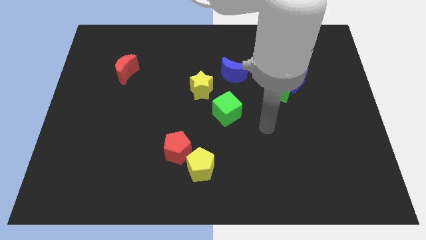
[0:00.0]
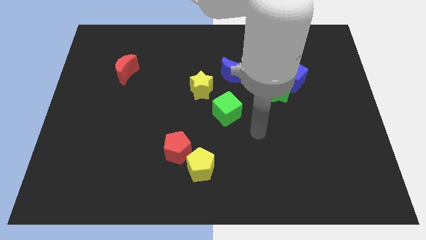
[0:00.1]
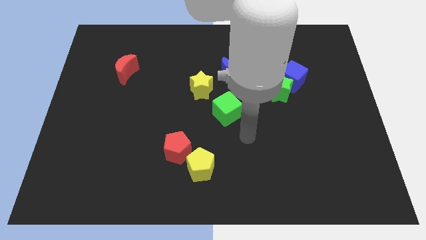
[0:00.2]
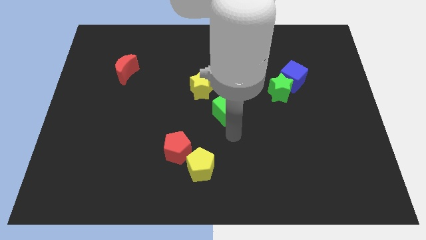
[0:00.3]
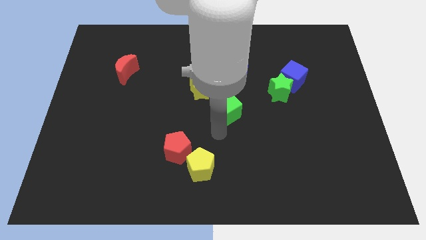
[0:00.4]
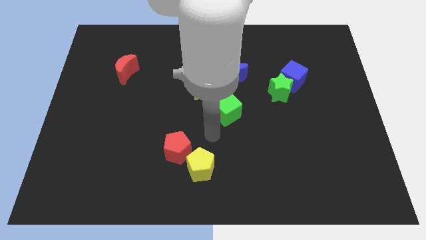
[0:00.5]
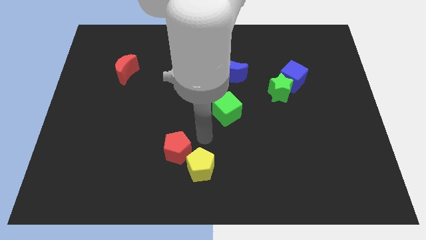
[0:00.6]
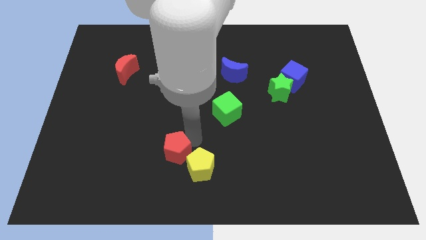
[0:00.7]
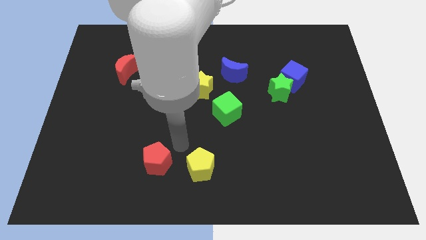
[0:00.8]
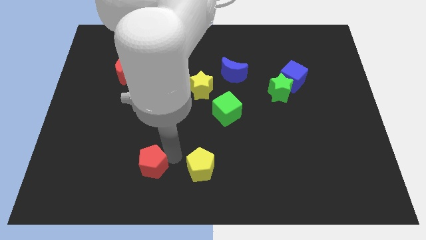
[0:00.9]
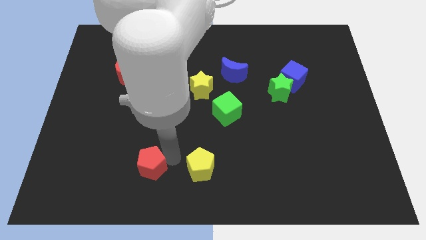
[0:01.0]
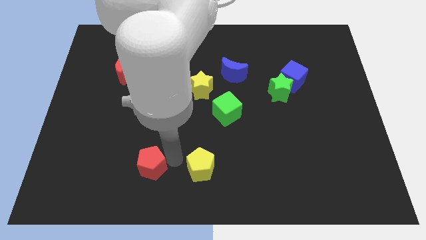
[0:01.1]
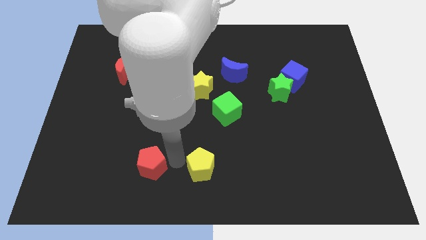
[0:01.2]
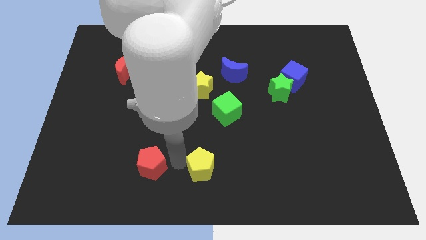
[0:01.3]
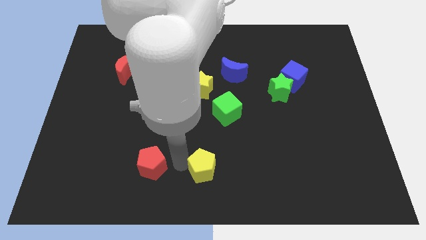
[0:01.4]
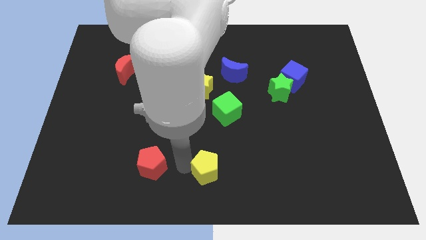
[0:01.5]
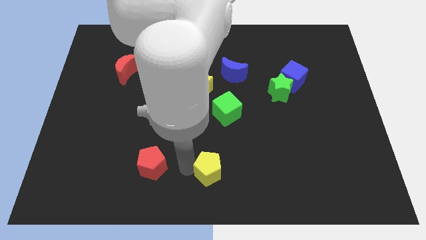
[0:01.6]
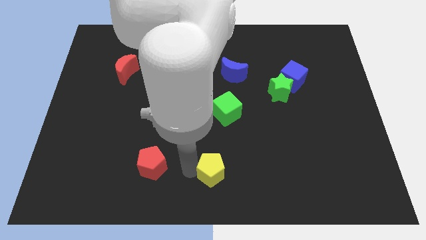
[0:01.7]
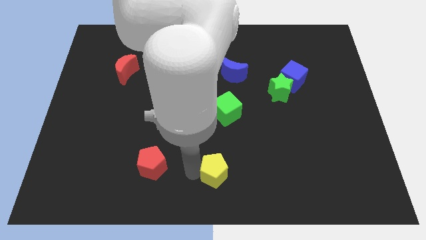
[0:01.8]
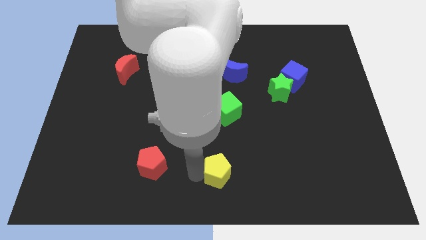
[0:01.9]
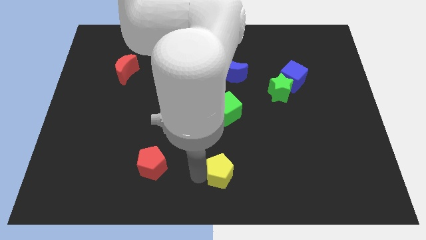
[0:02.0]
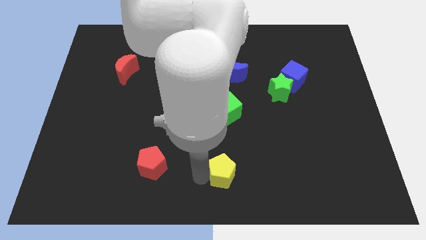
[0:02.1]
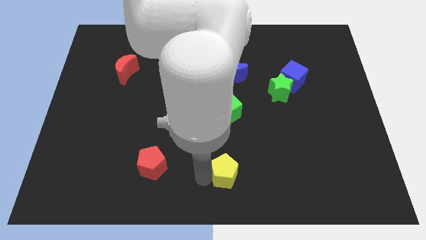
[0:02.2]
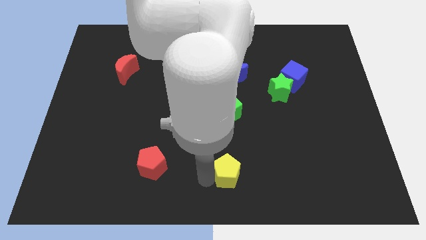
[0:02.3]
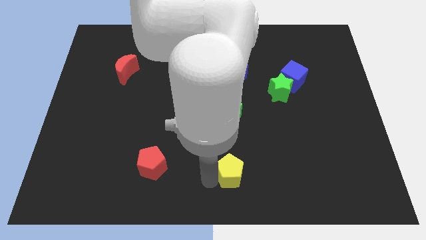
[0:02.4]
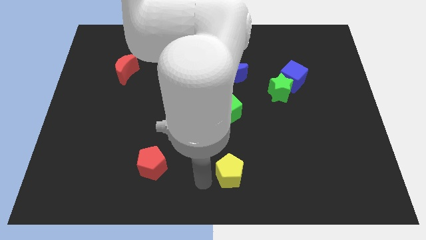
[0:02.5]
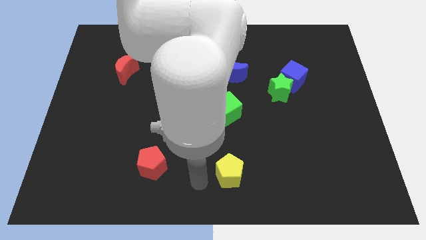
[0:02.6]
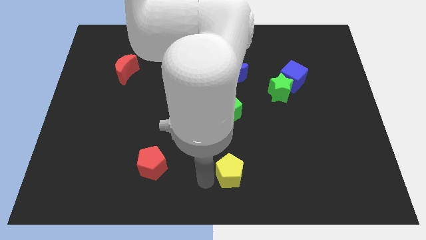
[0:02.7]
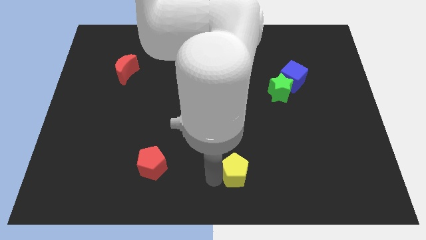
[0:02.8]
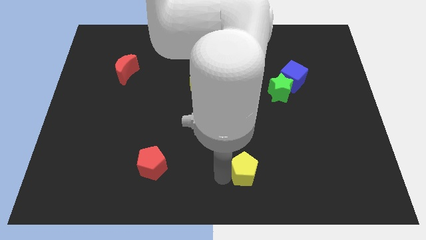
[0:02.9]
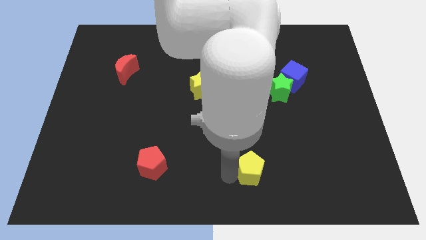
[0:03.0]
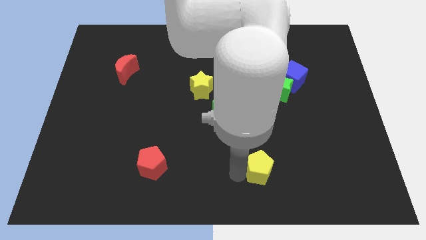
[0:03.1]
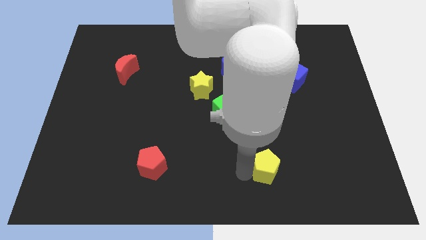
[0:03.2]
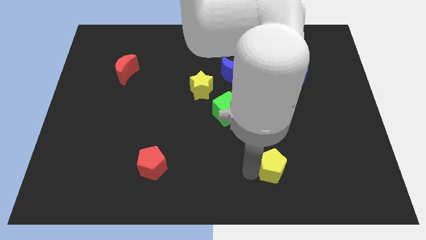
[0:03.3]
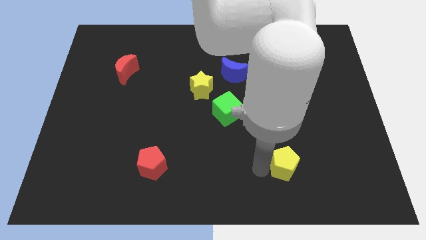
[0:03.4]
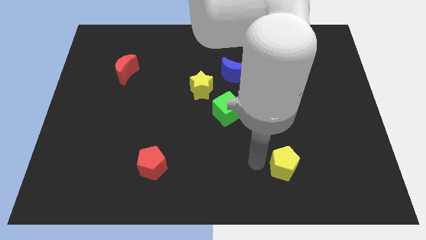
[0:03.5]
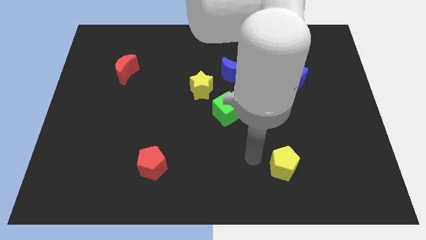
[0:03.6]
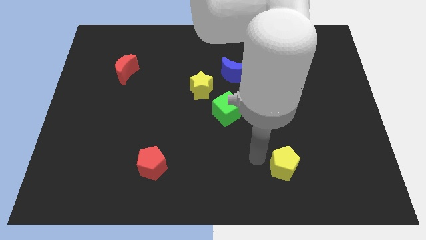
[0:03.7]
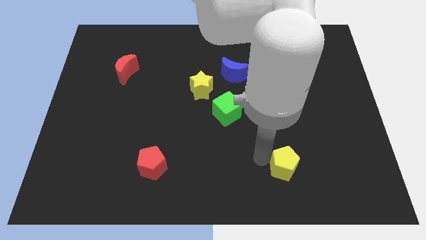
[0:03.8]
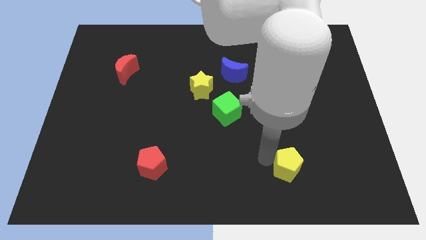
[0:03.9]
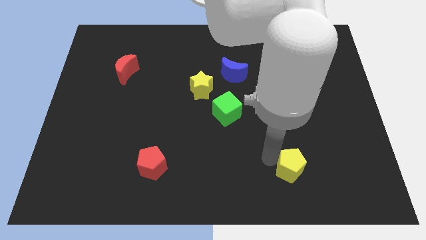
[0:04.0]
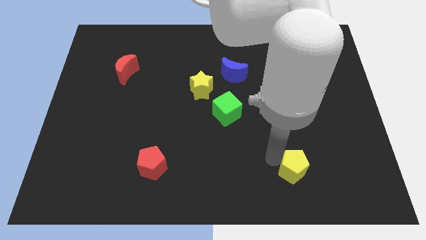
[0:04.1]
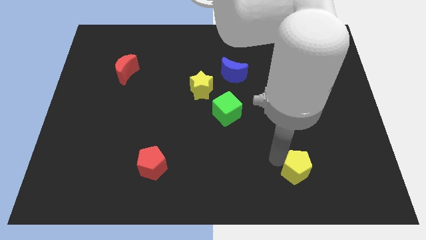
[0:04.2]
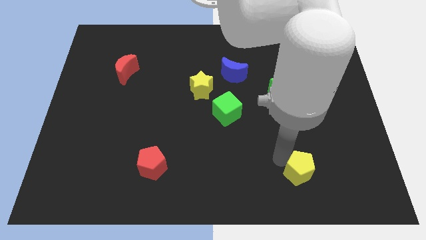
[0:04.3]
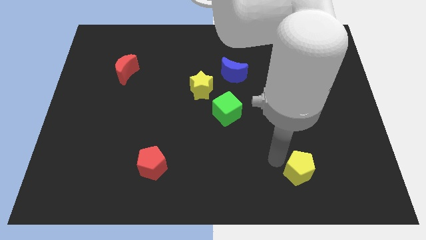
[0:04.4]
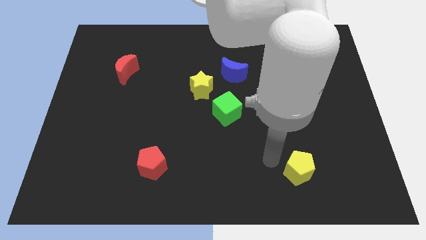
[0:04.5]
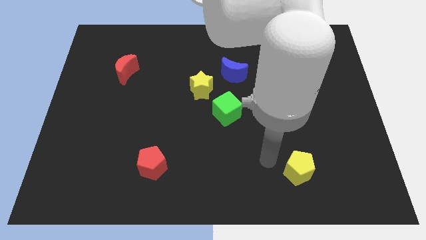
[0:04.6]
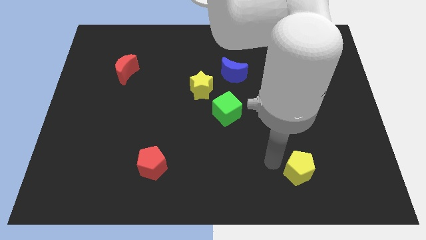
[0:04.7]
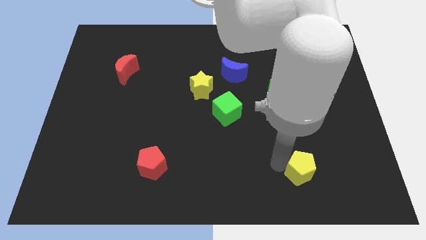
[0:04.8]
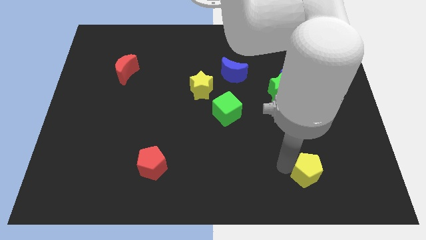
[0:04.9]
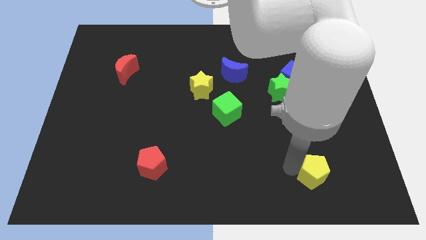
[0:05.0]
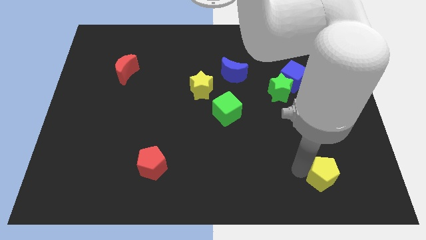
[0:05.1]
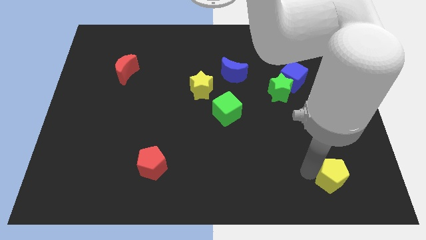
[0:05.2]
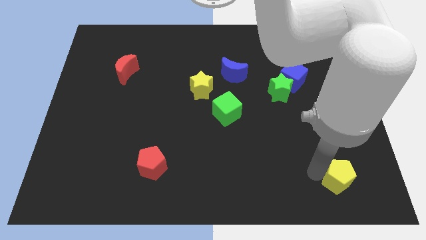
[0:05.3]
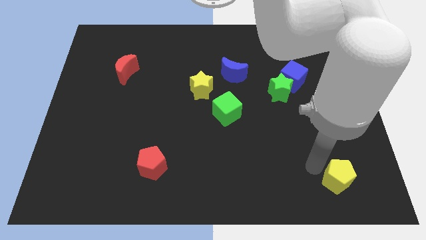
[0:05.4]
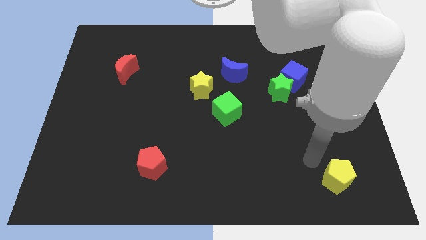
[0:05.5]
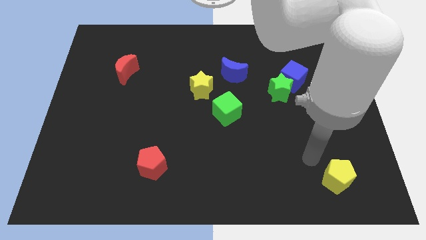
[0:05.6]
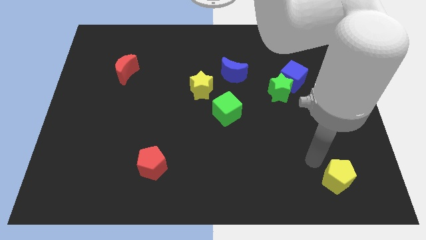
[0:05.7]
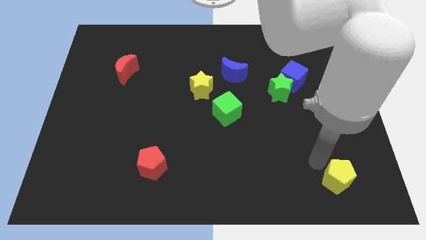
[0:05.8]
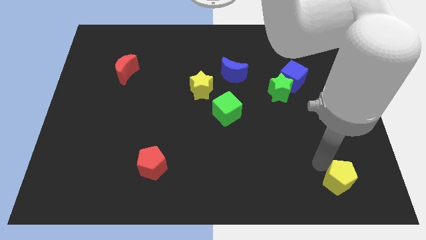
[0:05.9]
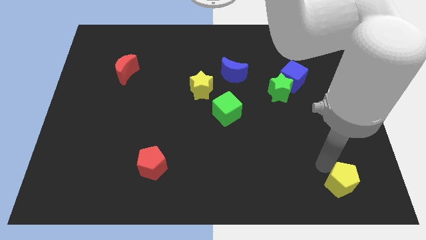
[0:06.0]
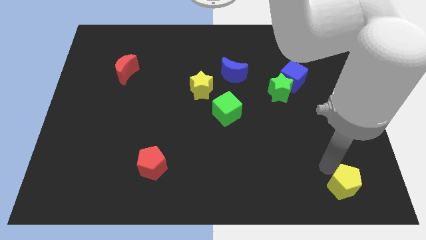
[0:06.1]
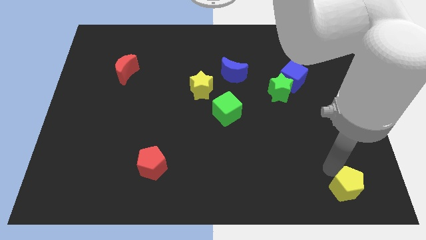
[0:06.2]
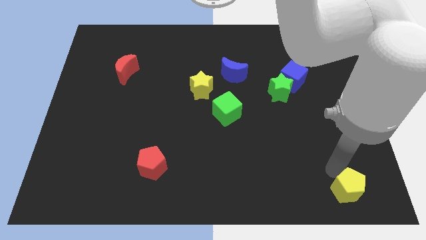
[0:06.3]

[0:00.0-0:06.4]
slide the yellow pentagon to the bottom right of the board

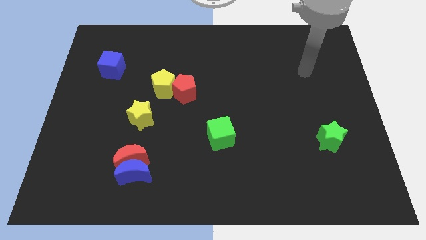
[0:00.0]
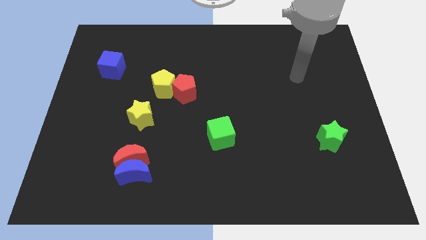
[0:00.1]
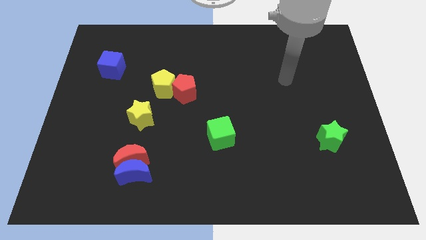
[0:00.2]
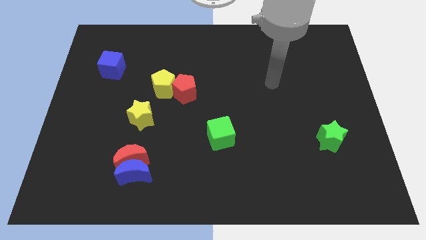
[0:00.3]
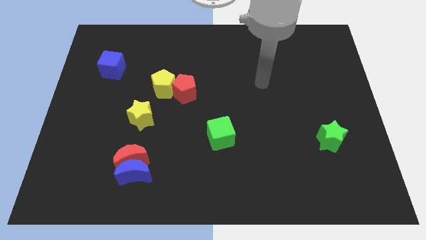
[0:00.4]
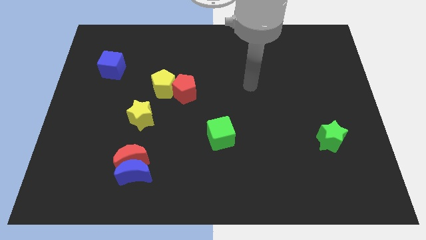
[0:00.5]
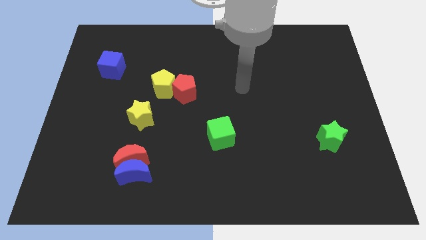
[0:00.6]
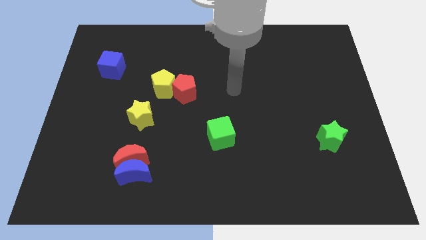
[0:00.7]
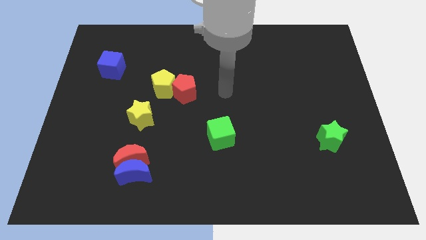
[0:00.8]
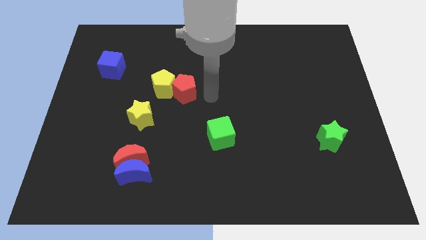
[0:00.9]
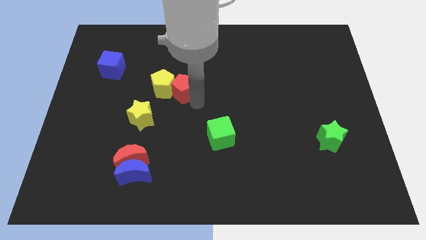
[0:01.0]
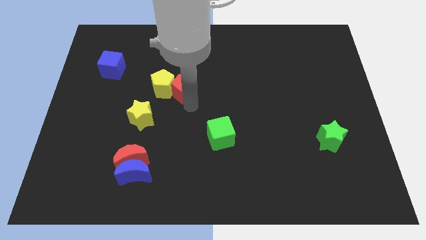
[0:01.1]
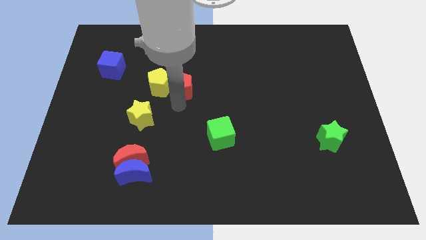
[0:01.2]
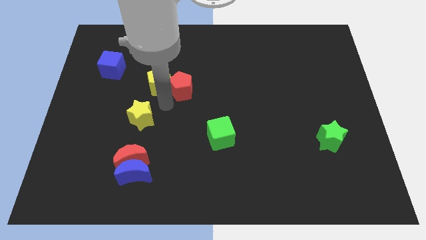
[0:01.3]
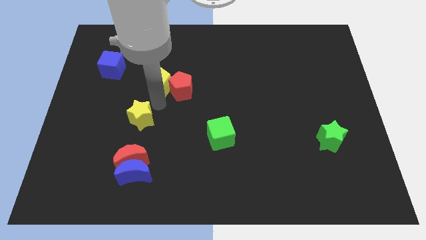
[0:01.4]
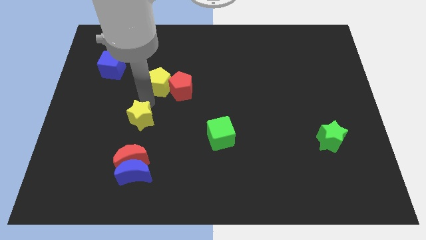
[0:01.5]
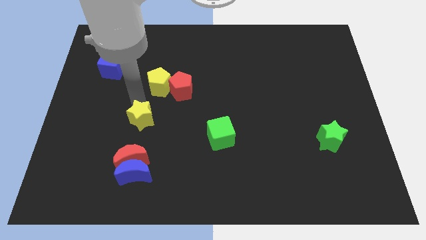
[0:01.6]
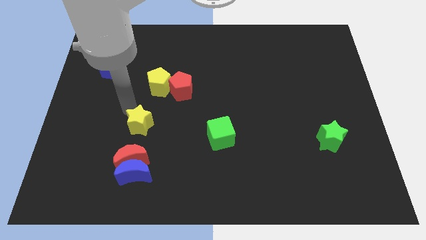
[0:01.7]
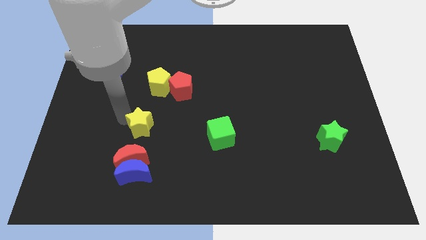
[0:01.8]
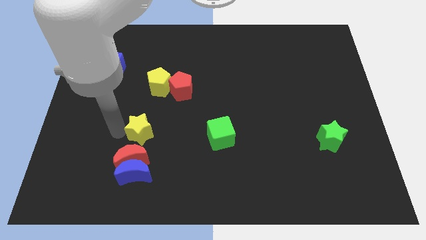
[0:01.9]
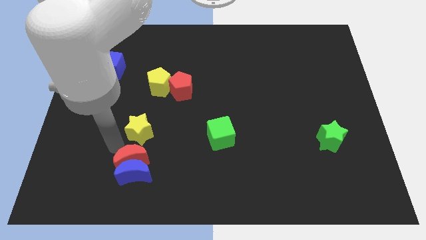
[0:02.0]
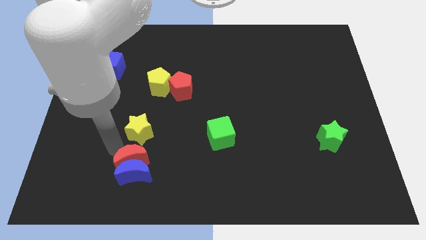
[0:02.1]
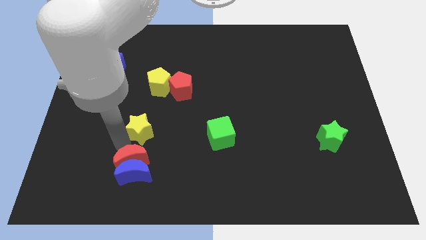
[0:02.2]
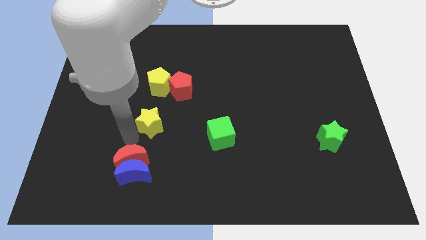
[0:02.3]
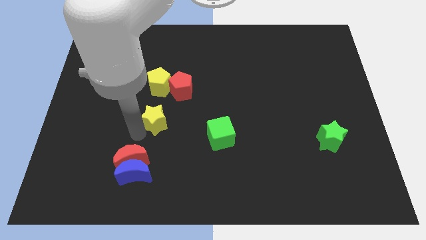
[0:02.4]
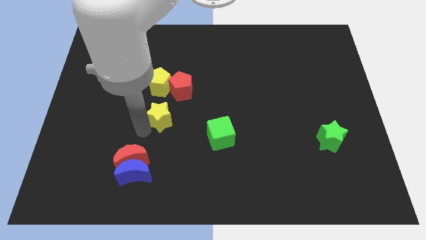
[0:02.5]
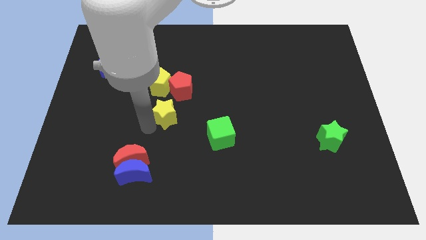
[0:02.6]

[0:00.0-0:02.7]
push the yellow star to the middle
